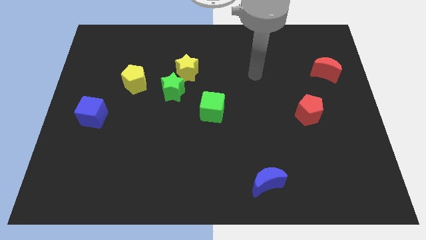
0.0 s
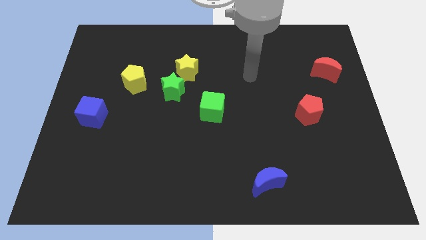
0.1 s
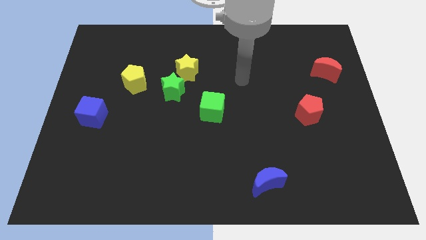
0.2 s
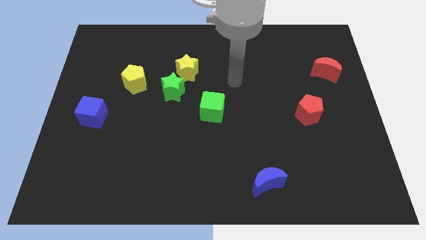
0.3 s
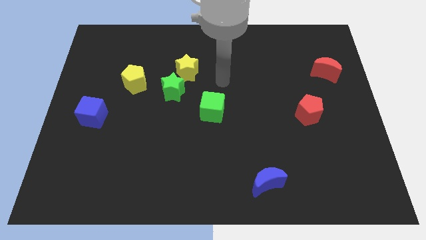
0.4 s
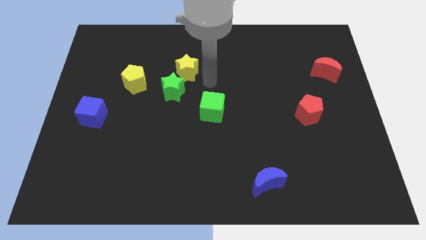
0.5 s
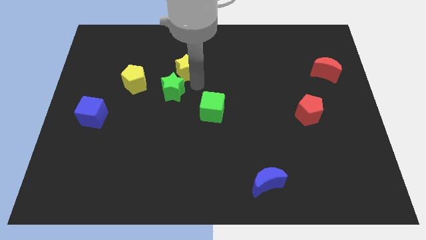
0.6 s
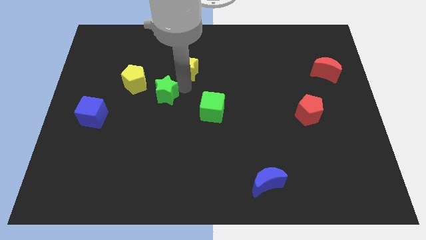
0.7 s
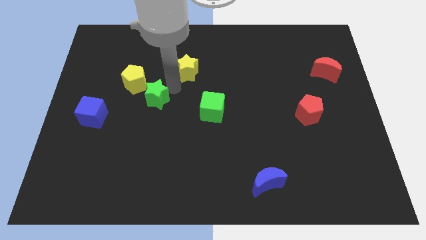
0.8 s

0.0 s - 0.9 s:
pull the yellow star apart from the green star

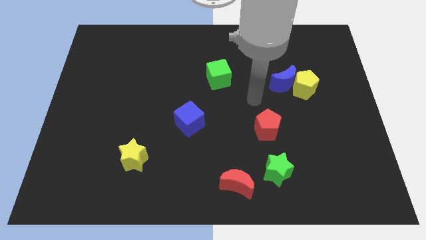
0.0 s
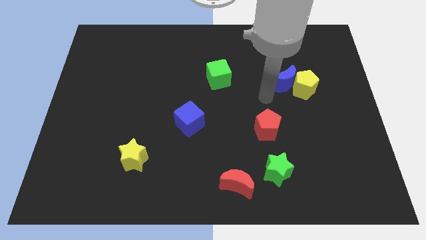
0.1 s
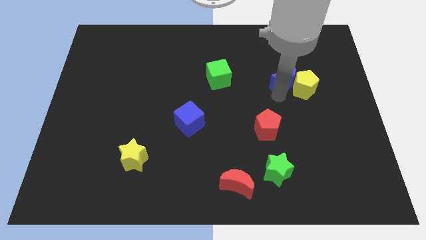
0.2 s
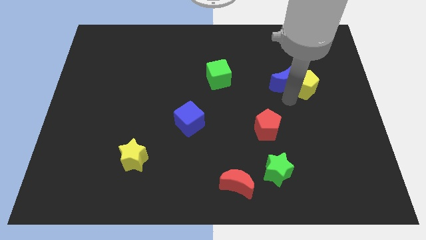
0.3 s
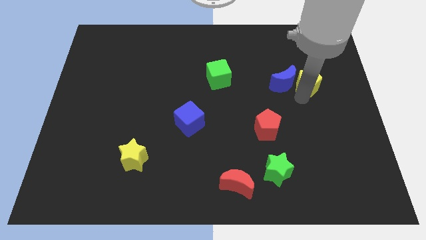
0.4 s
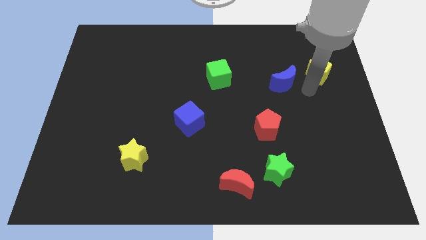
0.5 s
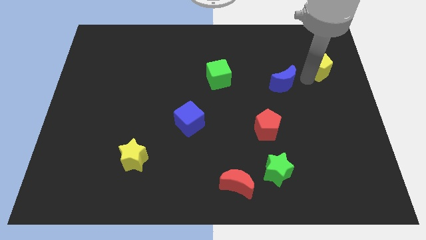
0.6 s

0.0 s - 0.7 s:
separate the blue moon from the yellow pentagon

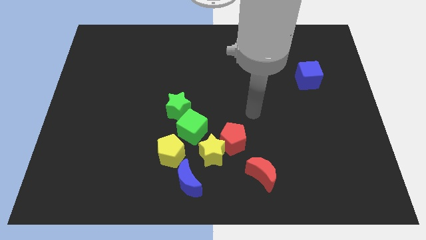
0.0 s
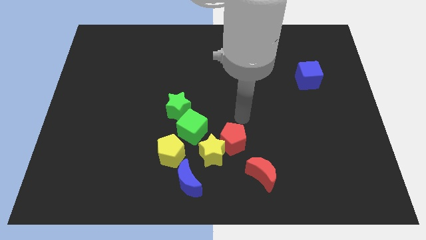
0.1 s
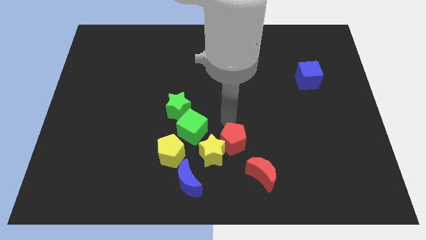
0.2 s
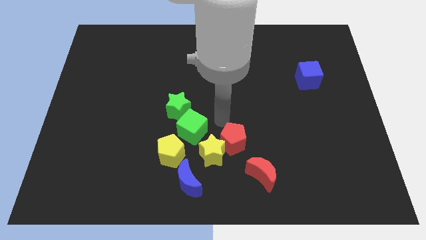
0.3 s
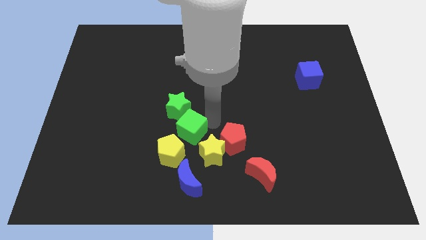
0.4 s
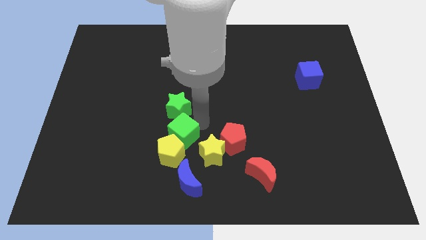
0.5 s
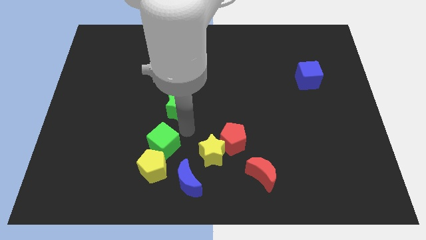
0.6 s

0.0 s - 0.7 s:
separate the green star from the green cube

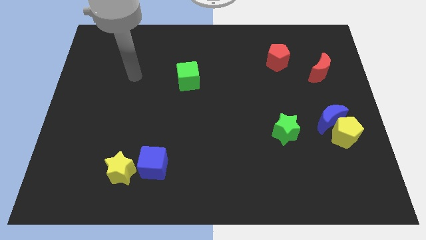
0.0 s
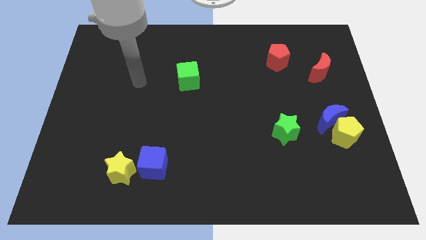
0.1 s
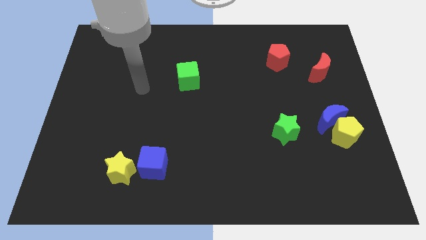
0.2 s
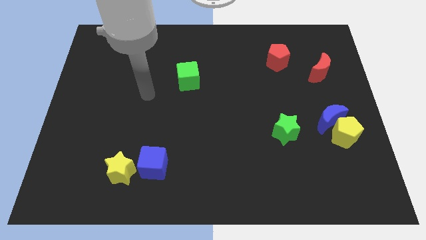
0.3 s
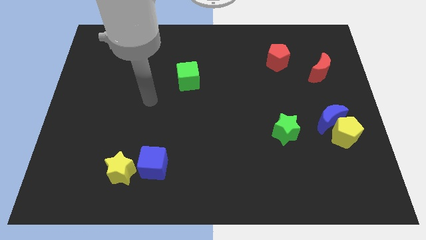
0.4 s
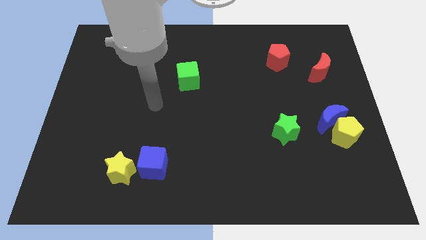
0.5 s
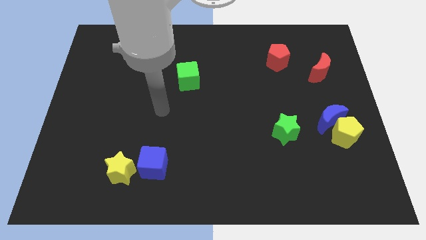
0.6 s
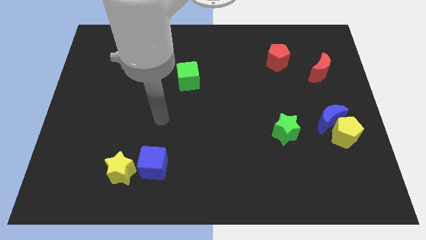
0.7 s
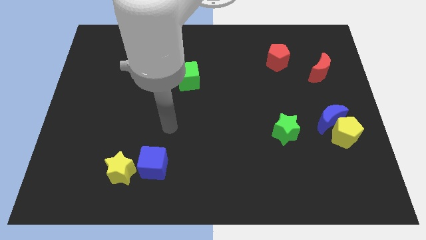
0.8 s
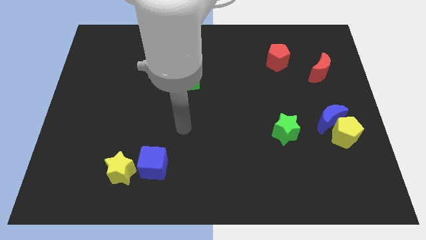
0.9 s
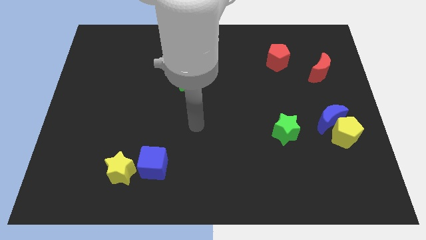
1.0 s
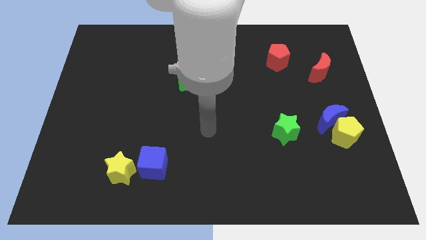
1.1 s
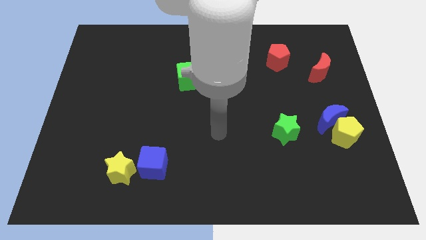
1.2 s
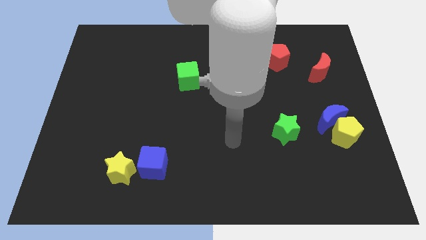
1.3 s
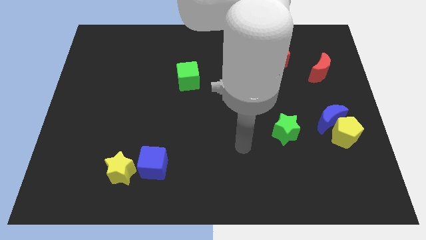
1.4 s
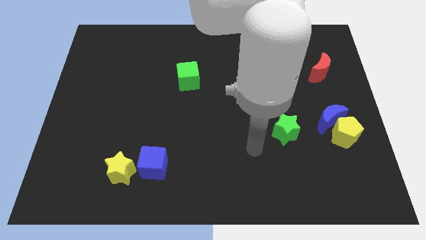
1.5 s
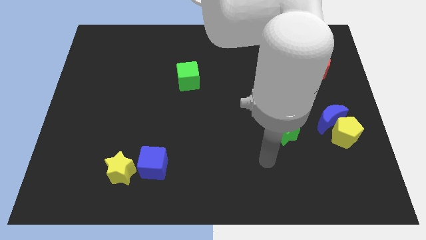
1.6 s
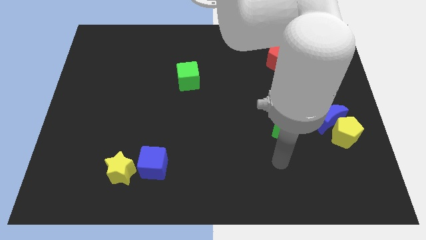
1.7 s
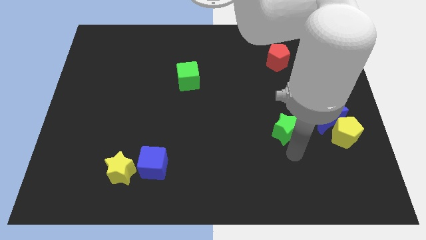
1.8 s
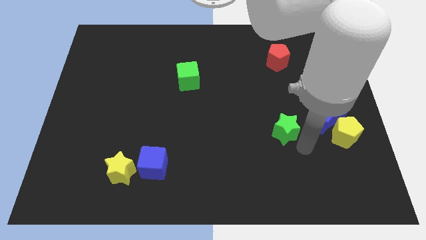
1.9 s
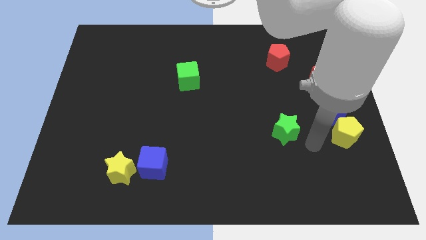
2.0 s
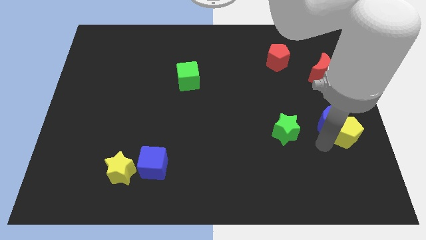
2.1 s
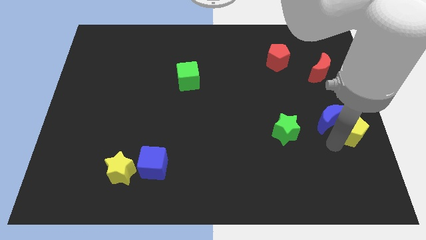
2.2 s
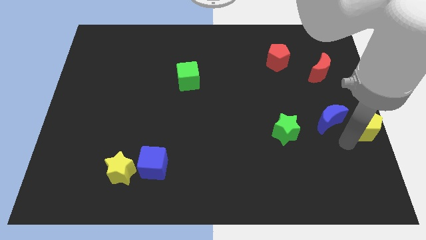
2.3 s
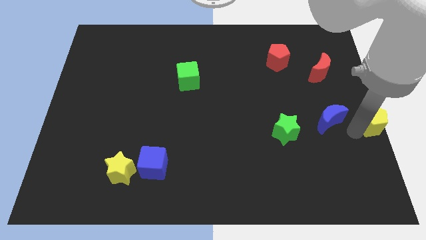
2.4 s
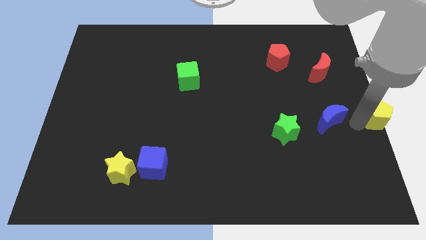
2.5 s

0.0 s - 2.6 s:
pull the blue moon apart from the yellow pentagon

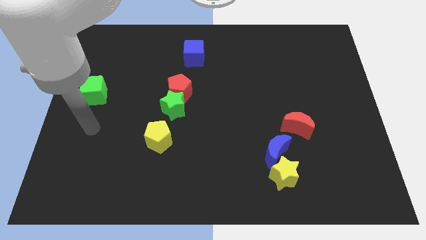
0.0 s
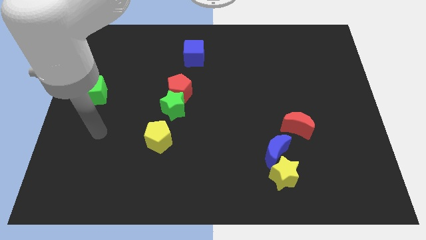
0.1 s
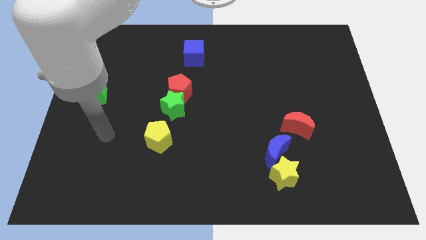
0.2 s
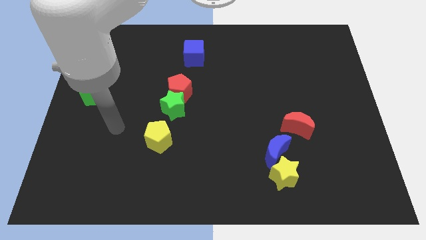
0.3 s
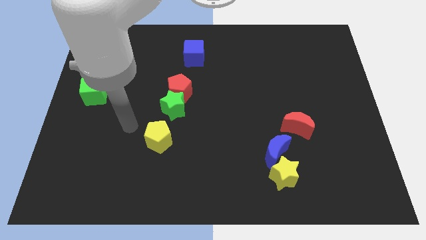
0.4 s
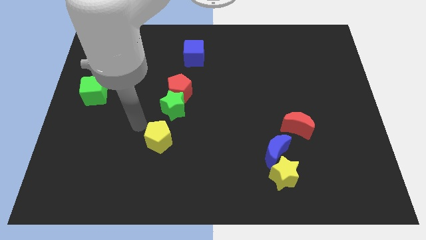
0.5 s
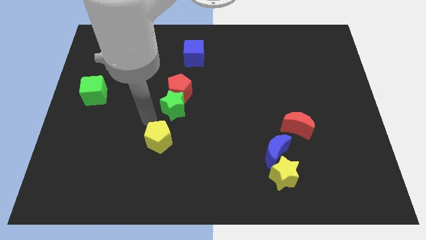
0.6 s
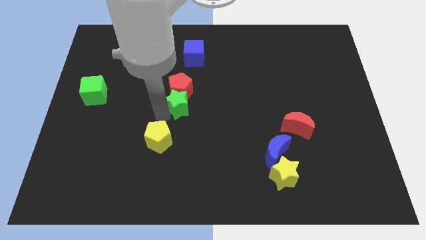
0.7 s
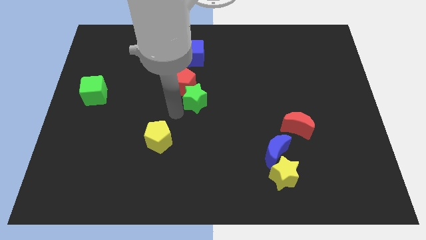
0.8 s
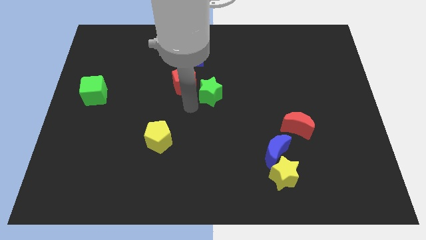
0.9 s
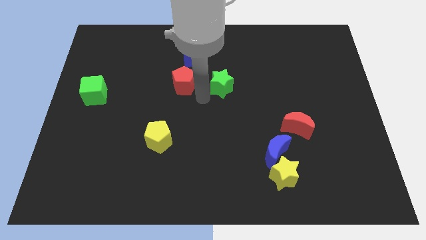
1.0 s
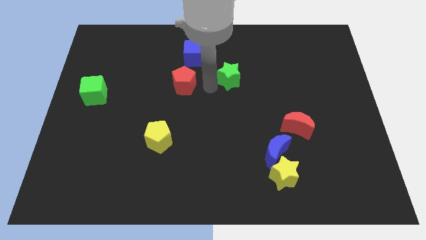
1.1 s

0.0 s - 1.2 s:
move the red pentagon away from the green star

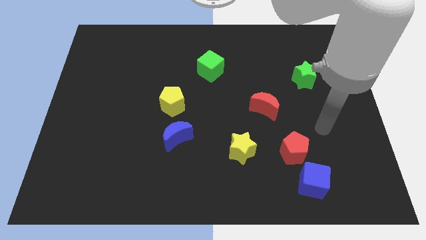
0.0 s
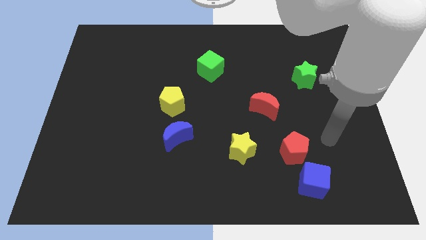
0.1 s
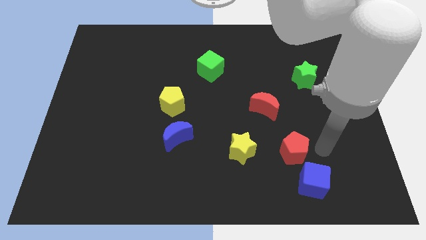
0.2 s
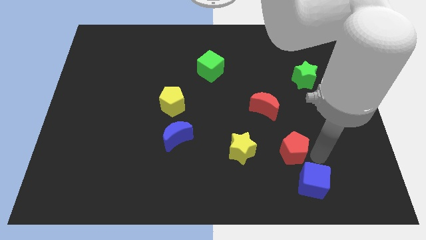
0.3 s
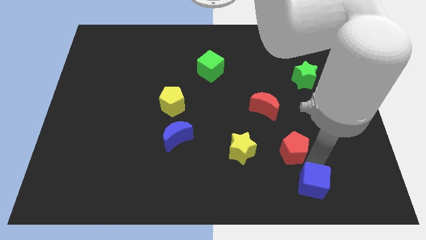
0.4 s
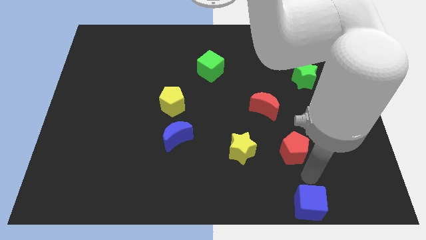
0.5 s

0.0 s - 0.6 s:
separate the red pentagon from the blue cube

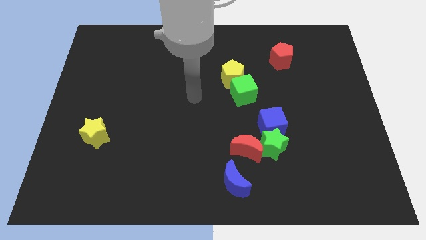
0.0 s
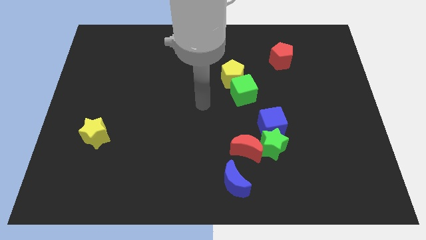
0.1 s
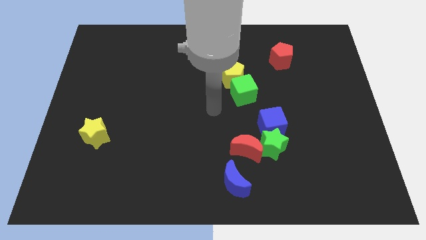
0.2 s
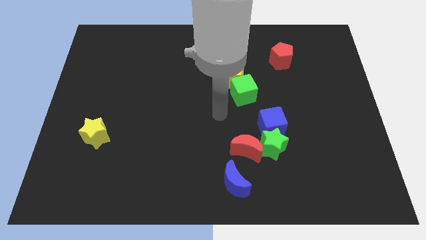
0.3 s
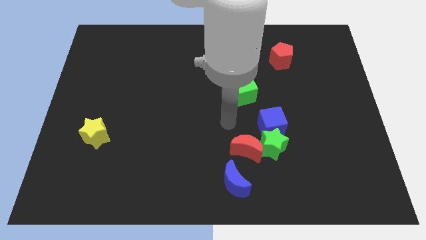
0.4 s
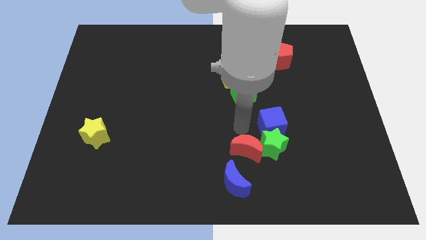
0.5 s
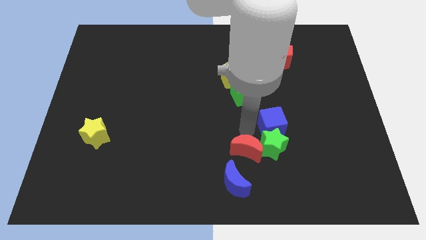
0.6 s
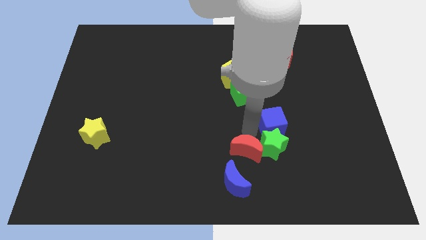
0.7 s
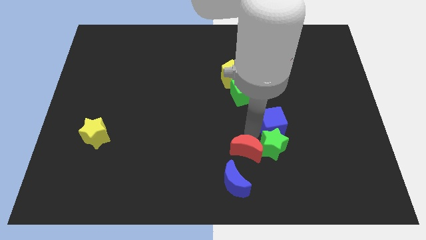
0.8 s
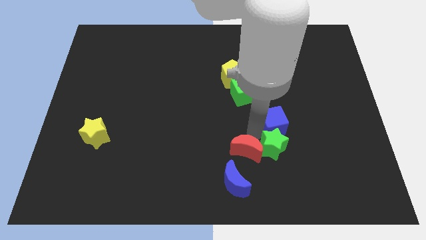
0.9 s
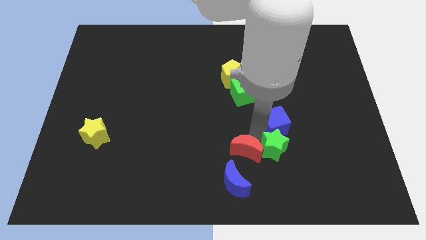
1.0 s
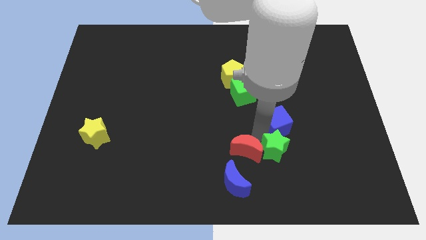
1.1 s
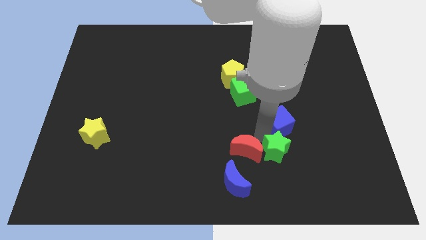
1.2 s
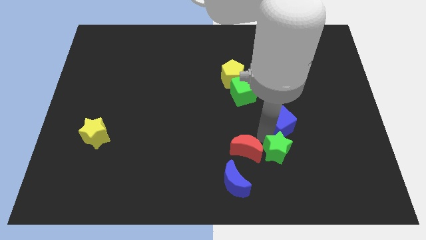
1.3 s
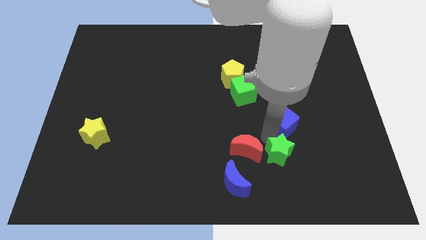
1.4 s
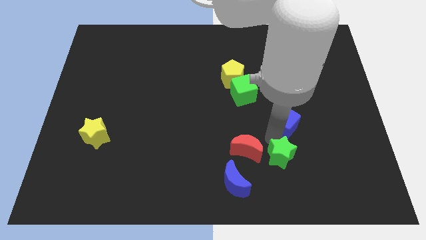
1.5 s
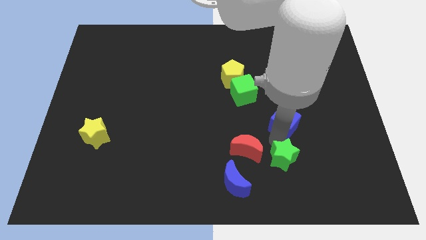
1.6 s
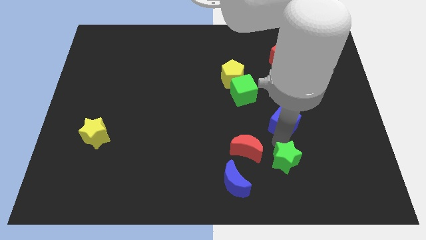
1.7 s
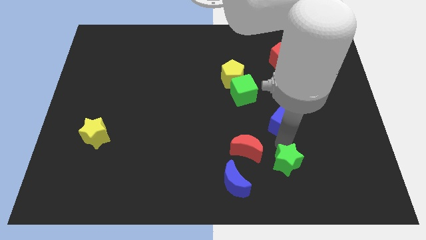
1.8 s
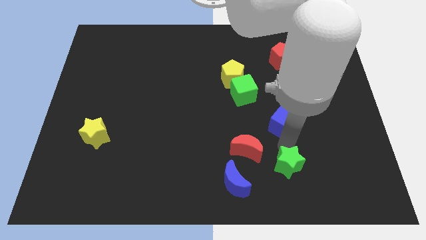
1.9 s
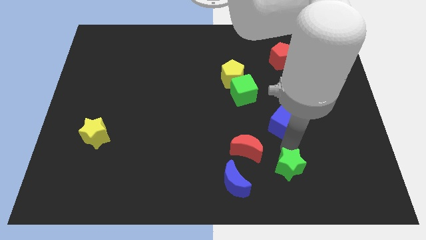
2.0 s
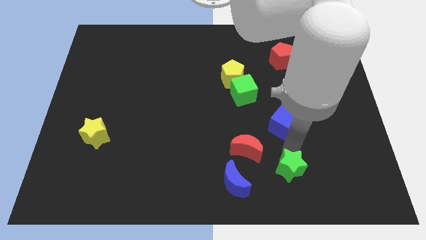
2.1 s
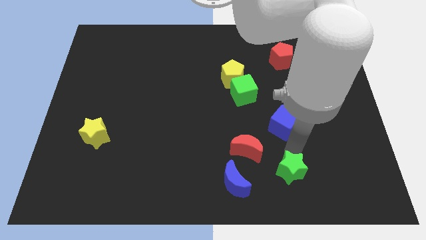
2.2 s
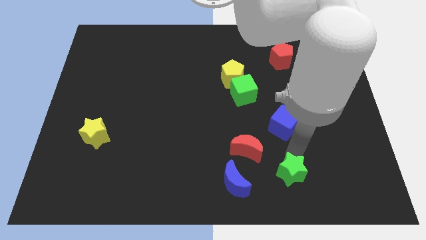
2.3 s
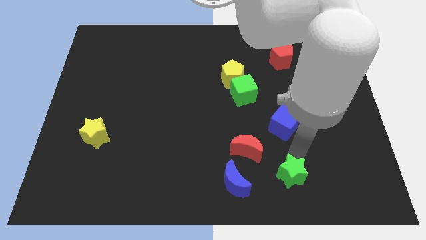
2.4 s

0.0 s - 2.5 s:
move the green star away from the blue cube and red moon
